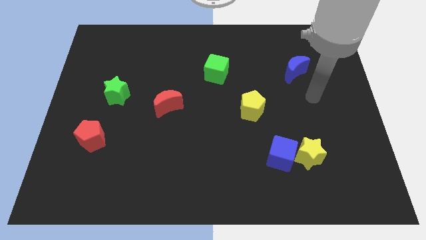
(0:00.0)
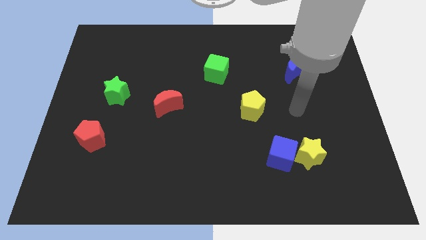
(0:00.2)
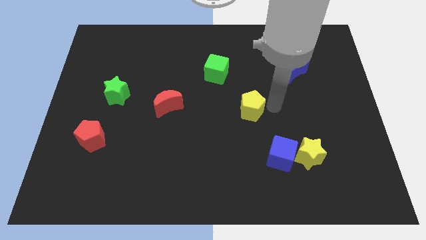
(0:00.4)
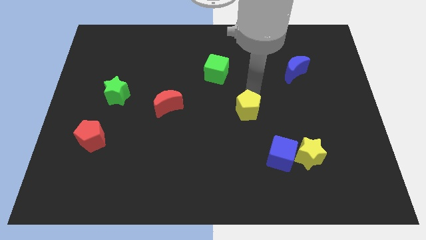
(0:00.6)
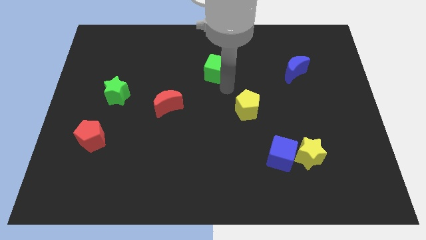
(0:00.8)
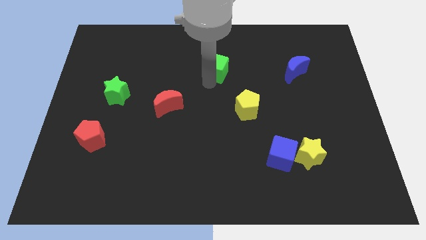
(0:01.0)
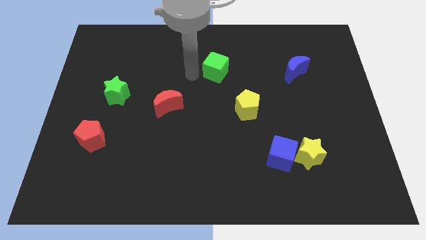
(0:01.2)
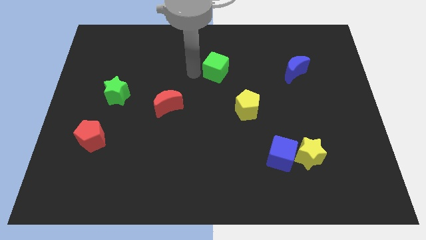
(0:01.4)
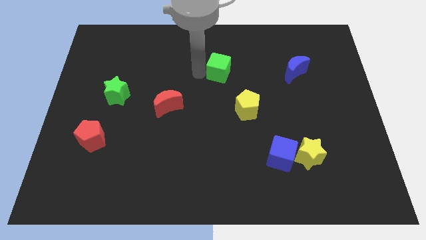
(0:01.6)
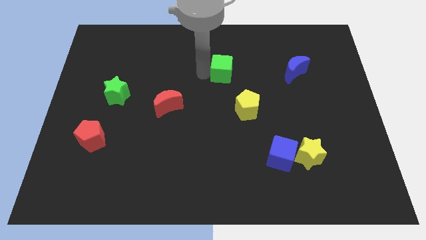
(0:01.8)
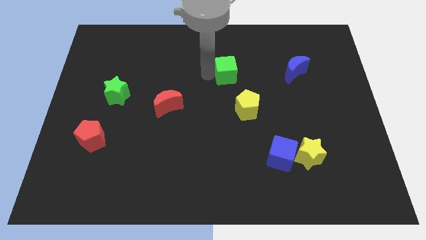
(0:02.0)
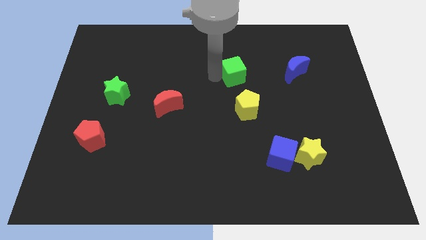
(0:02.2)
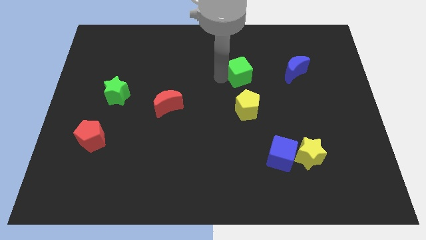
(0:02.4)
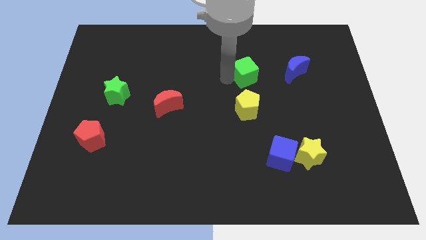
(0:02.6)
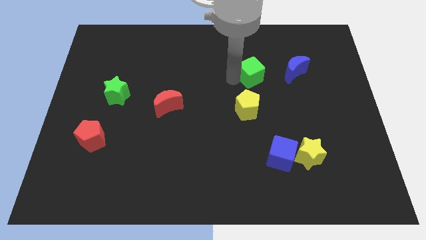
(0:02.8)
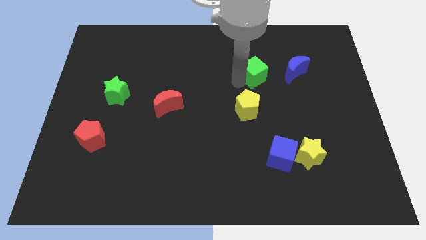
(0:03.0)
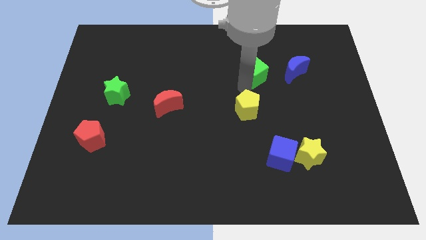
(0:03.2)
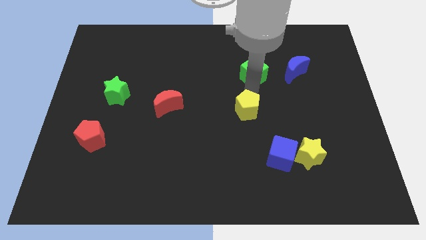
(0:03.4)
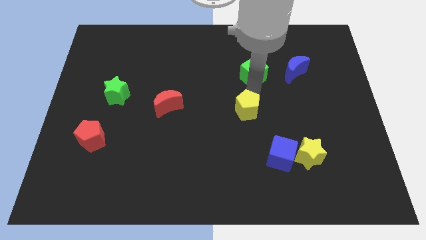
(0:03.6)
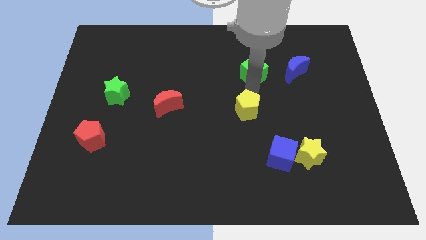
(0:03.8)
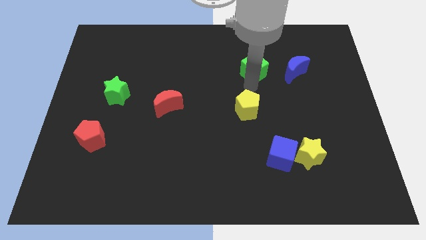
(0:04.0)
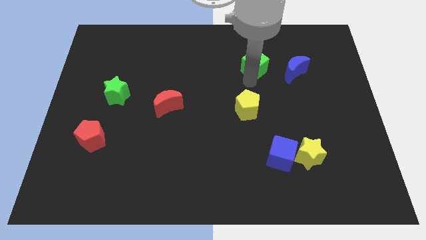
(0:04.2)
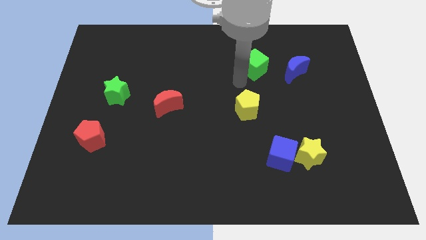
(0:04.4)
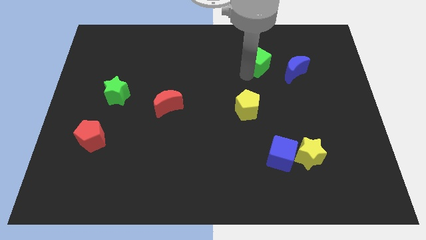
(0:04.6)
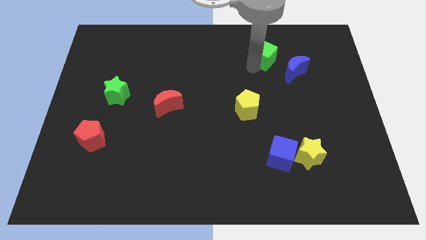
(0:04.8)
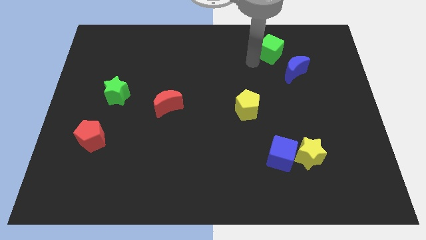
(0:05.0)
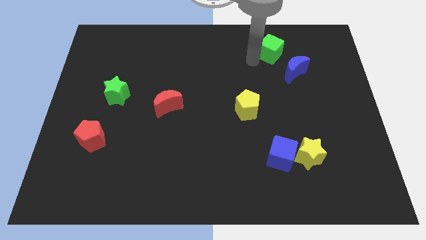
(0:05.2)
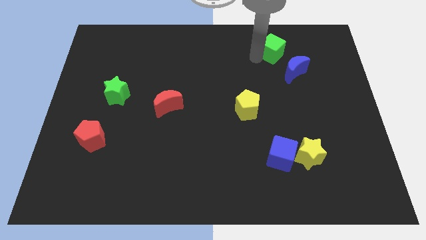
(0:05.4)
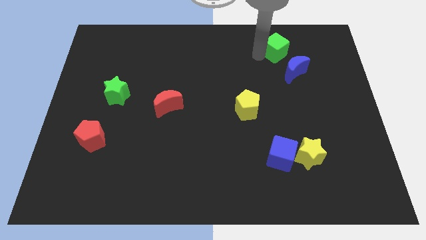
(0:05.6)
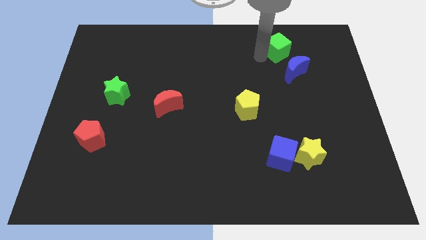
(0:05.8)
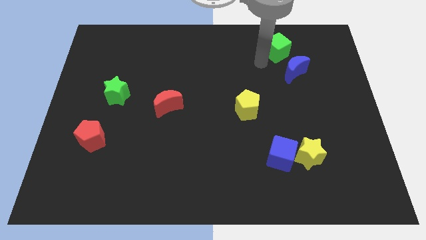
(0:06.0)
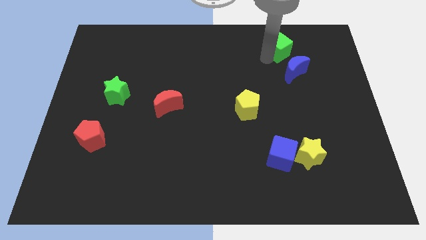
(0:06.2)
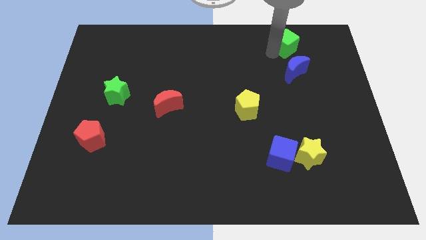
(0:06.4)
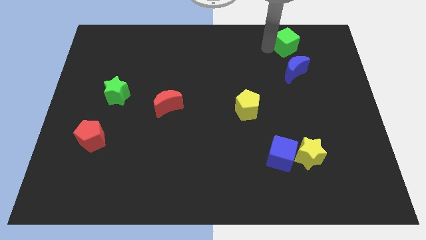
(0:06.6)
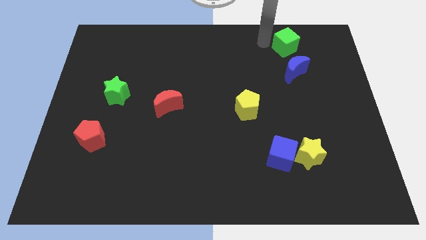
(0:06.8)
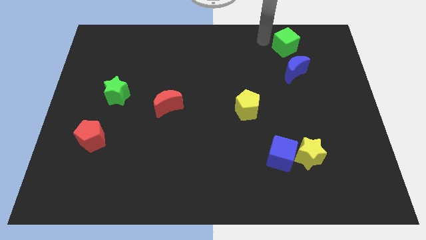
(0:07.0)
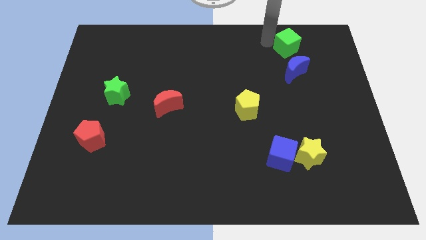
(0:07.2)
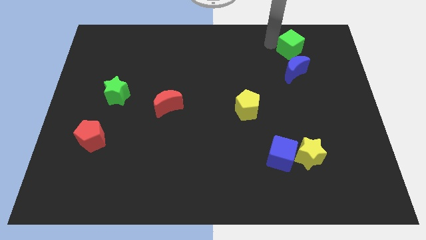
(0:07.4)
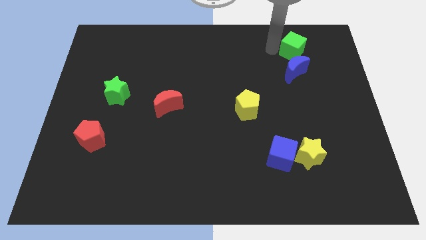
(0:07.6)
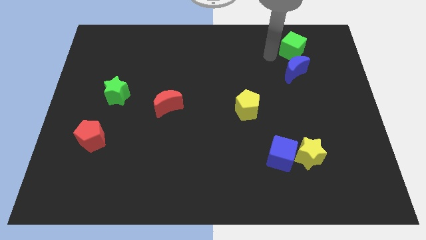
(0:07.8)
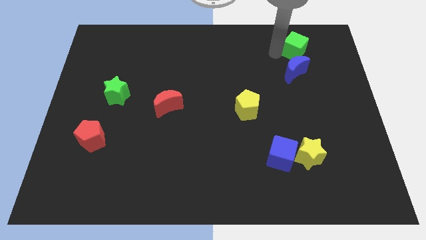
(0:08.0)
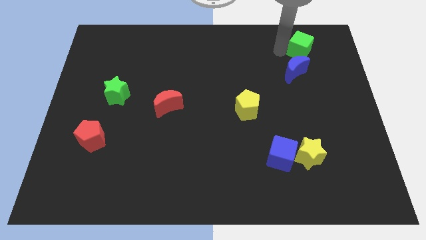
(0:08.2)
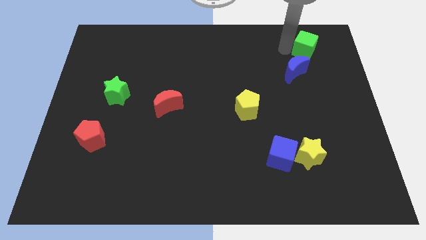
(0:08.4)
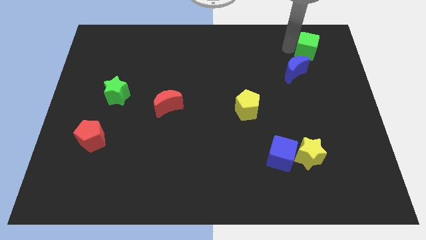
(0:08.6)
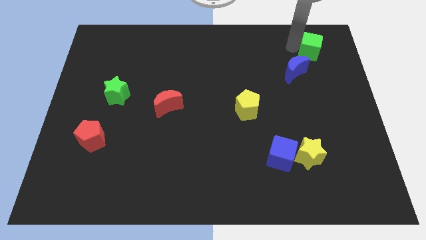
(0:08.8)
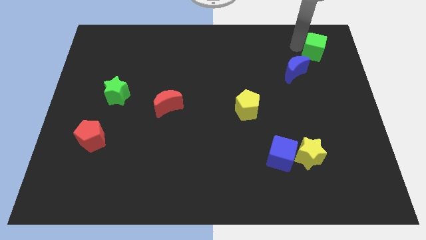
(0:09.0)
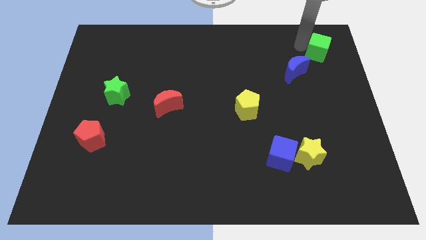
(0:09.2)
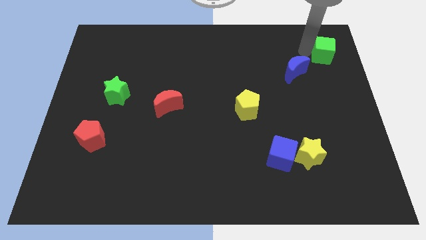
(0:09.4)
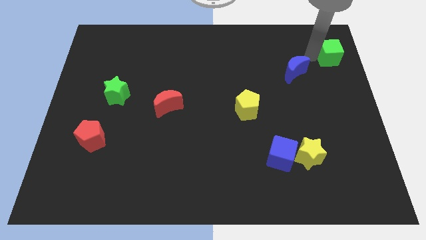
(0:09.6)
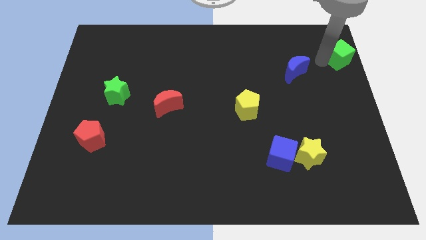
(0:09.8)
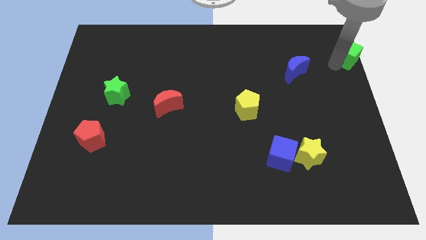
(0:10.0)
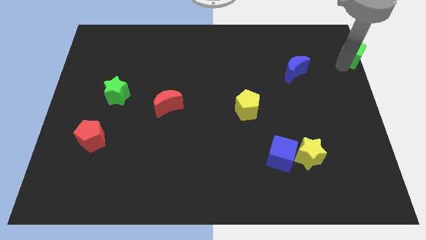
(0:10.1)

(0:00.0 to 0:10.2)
put the green cube to the top right corner

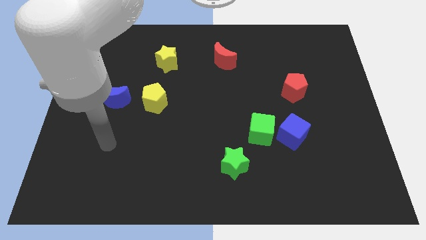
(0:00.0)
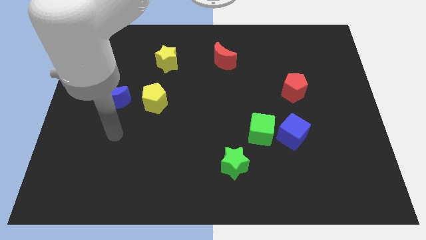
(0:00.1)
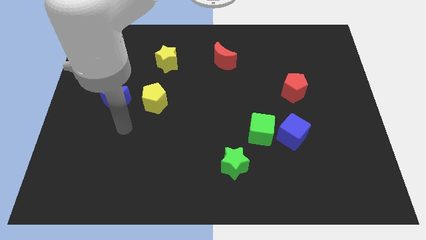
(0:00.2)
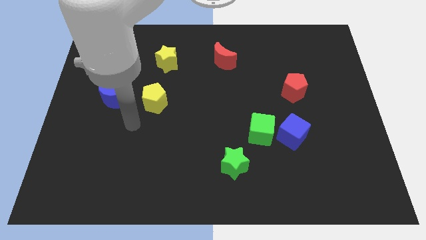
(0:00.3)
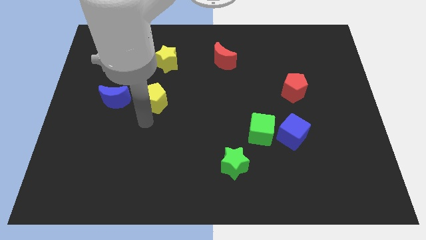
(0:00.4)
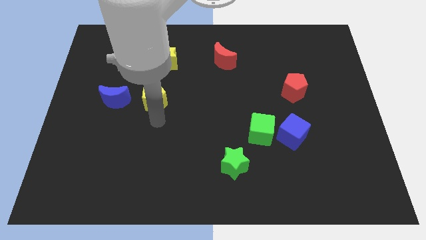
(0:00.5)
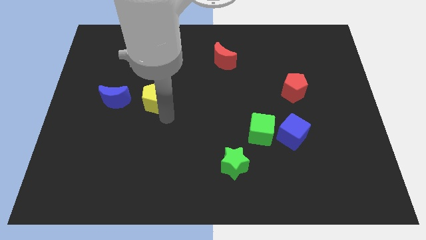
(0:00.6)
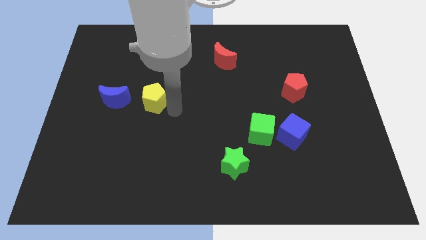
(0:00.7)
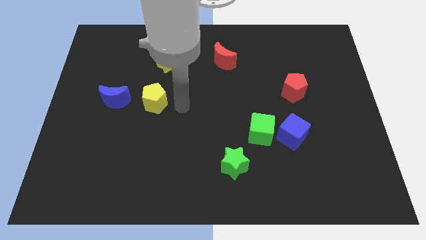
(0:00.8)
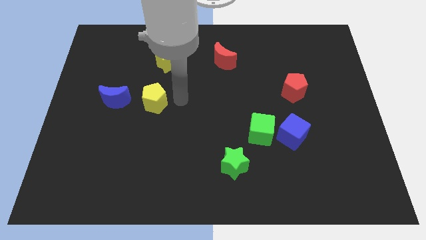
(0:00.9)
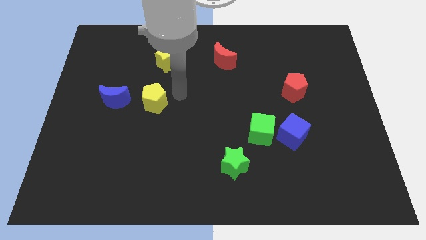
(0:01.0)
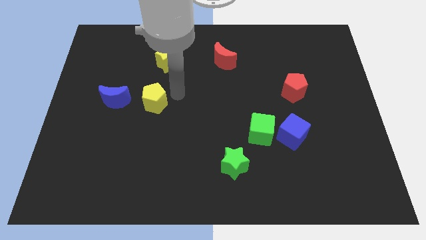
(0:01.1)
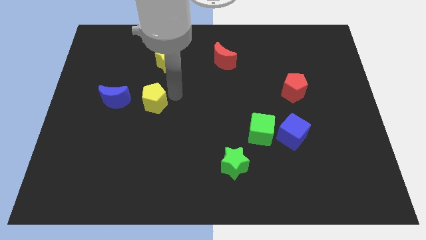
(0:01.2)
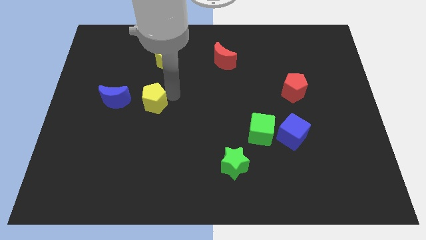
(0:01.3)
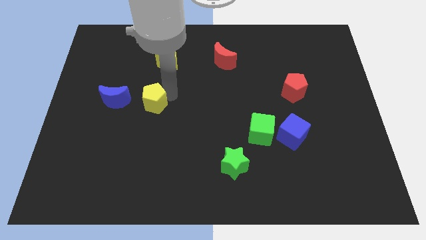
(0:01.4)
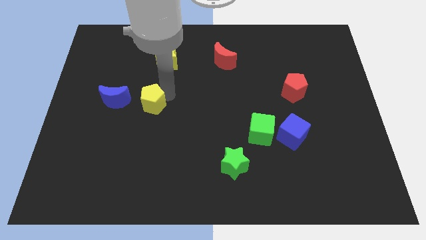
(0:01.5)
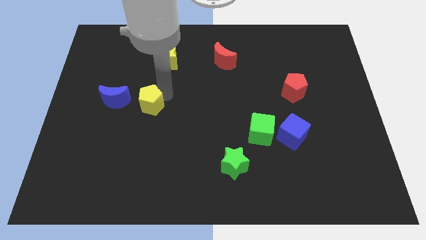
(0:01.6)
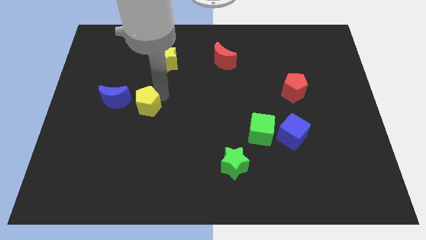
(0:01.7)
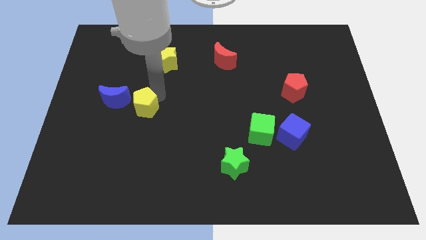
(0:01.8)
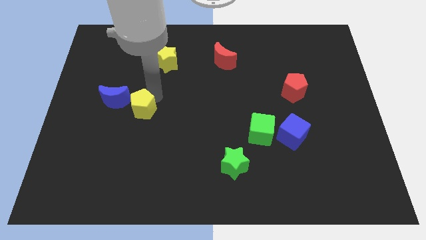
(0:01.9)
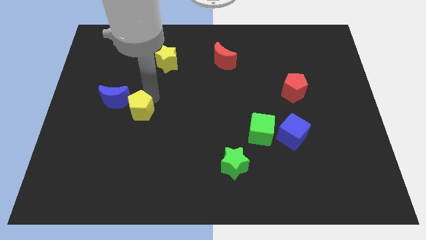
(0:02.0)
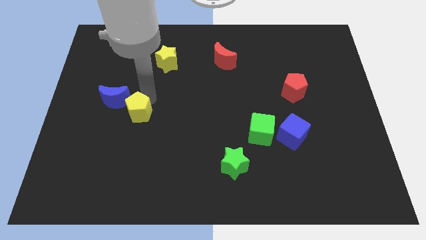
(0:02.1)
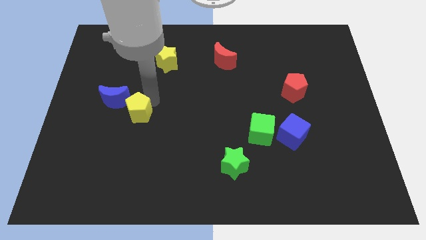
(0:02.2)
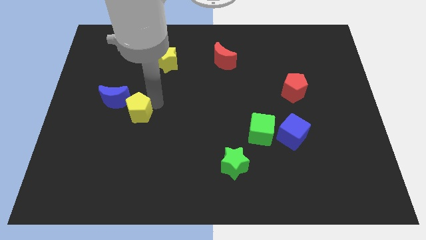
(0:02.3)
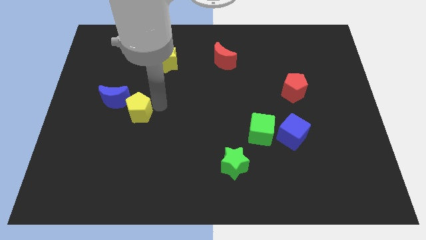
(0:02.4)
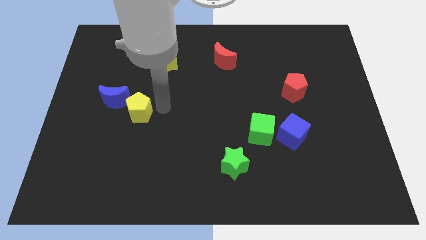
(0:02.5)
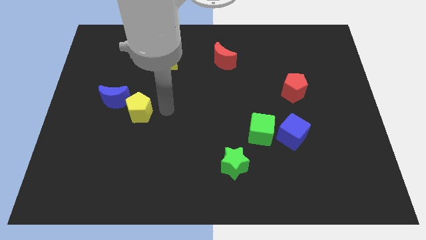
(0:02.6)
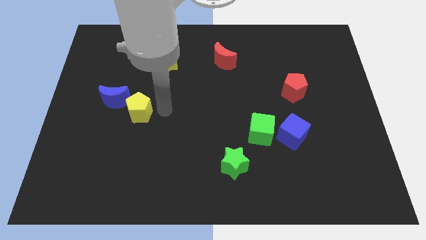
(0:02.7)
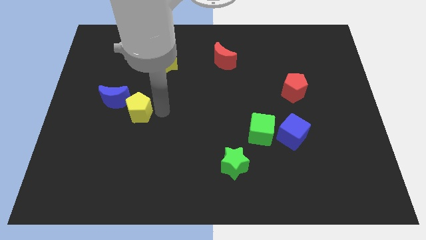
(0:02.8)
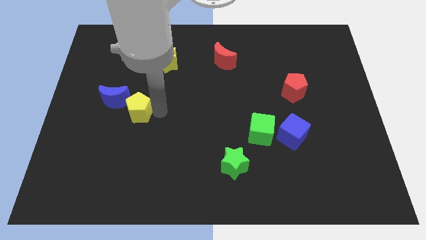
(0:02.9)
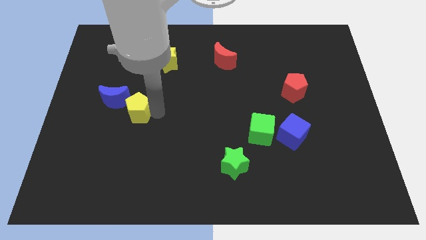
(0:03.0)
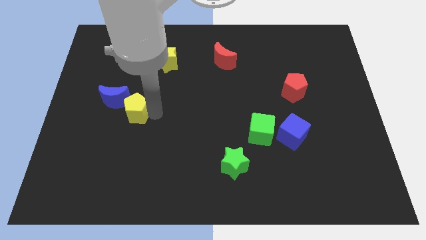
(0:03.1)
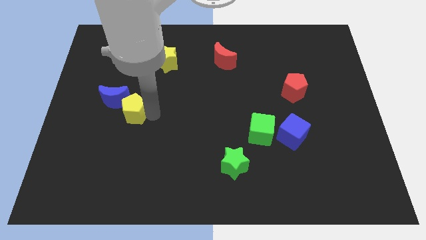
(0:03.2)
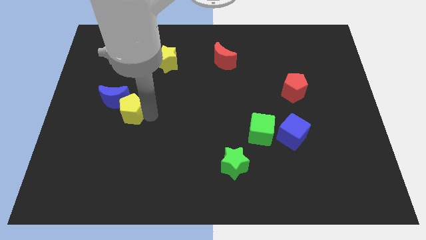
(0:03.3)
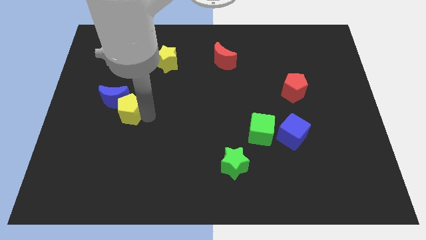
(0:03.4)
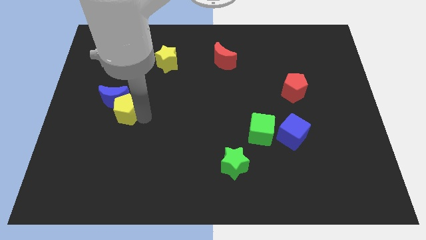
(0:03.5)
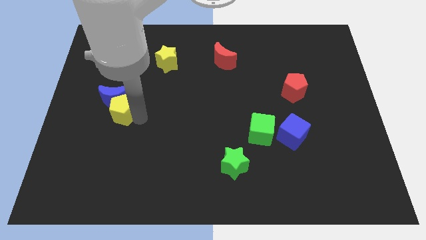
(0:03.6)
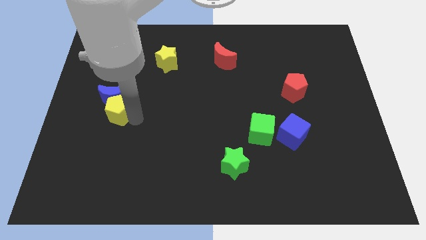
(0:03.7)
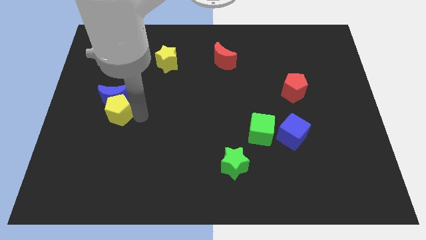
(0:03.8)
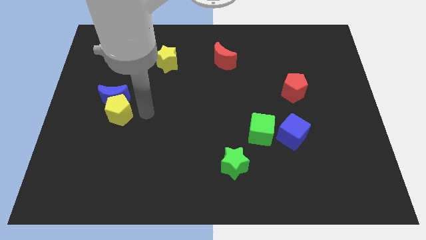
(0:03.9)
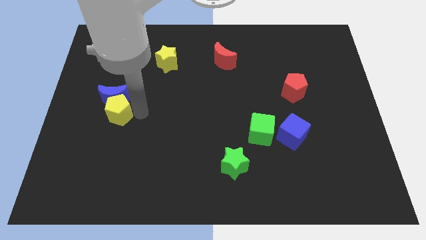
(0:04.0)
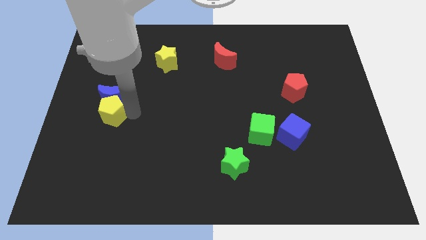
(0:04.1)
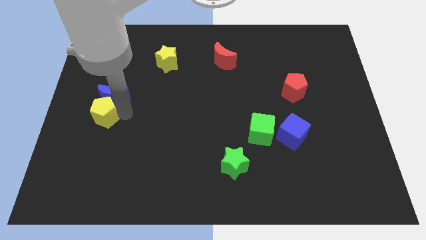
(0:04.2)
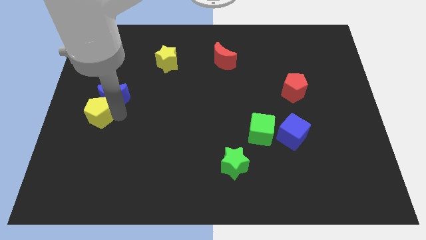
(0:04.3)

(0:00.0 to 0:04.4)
push the yellow pentagon to the center left
